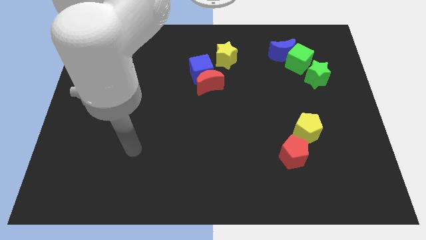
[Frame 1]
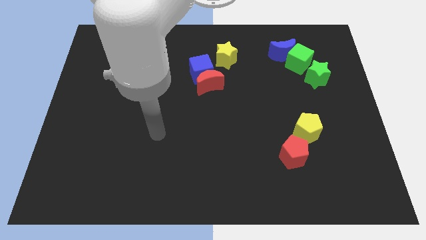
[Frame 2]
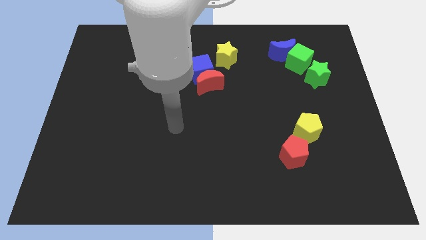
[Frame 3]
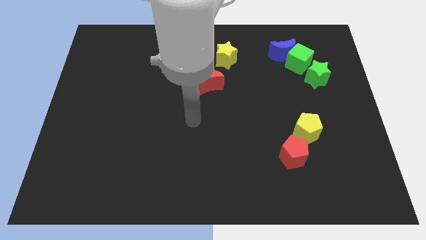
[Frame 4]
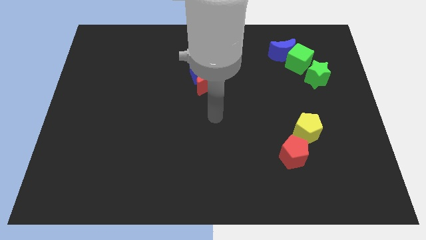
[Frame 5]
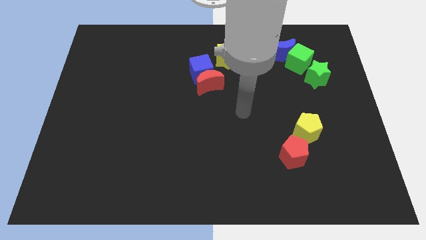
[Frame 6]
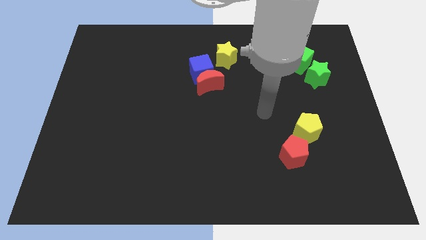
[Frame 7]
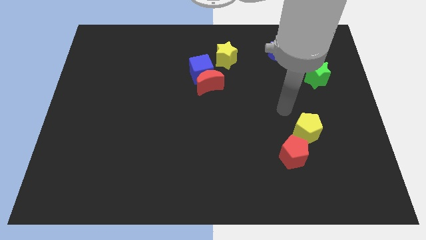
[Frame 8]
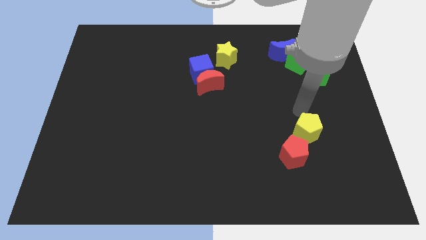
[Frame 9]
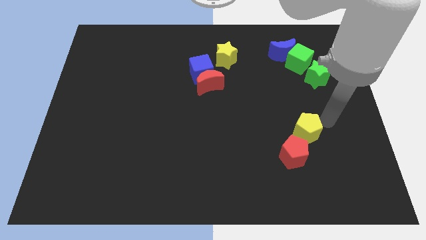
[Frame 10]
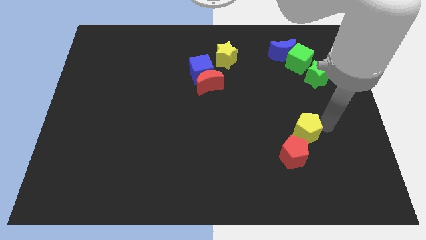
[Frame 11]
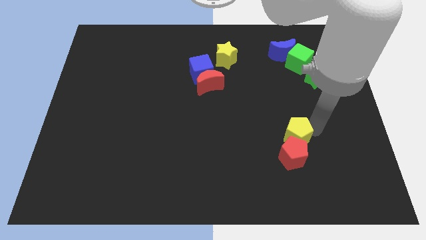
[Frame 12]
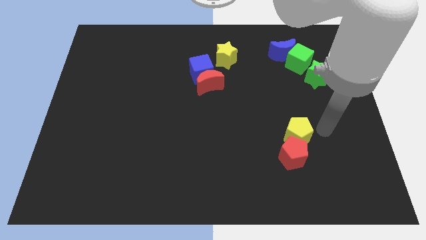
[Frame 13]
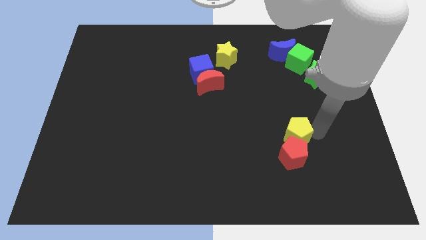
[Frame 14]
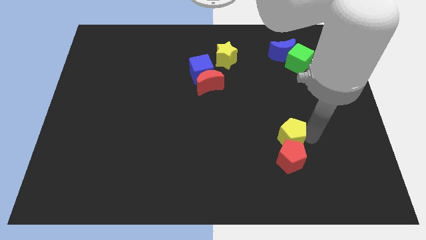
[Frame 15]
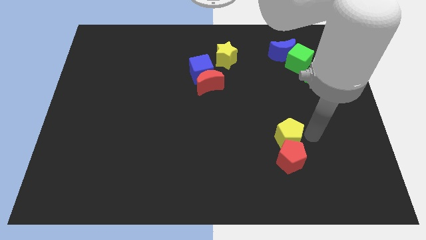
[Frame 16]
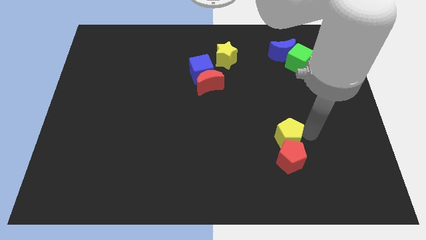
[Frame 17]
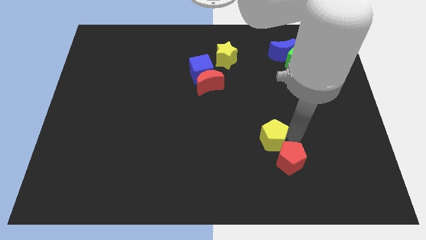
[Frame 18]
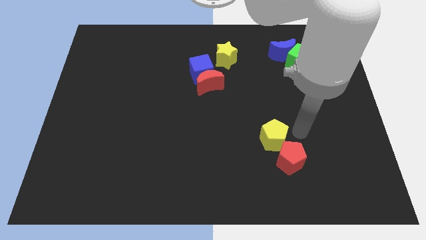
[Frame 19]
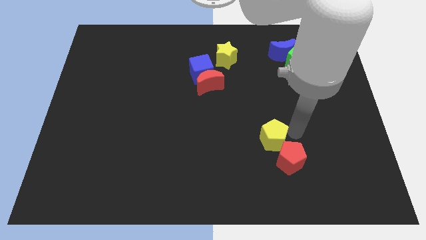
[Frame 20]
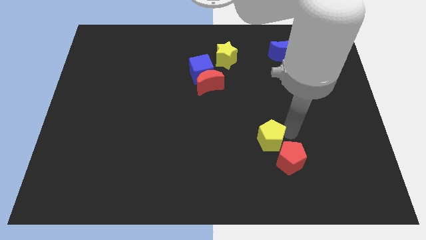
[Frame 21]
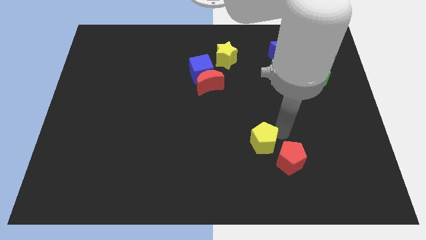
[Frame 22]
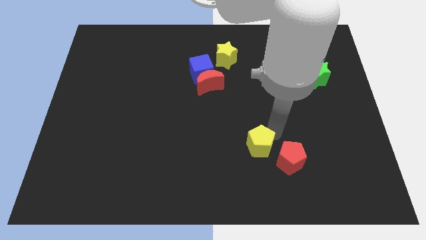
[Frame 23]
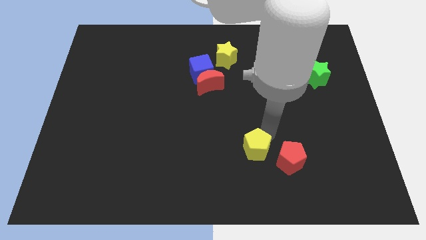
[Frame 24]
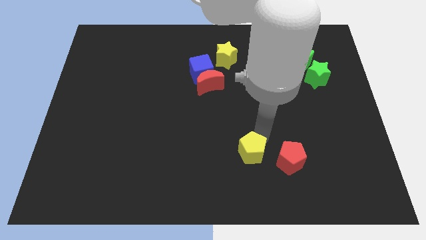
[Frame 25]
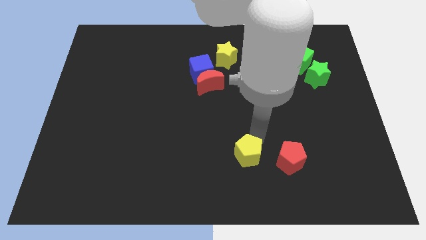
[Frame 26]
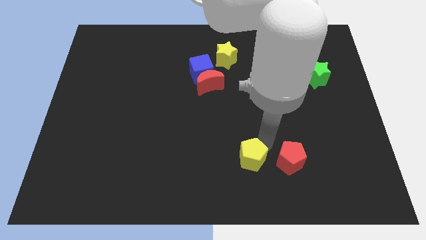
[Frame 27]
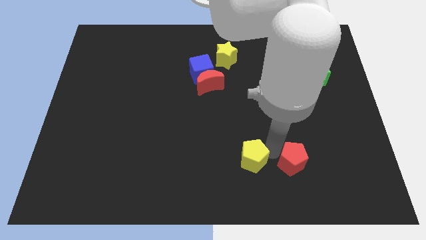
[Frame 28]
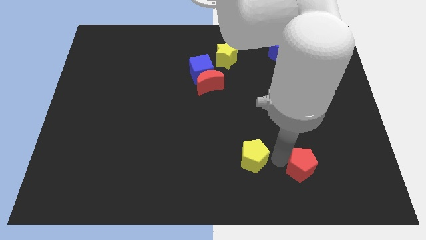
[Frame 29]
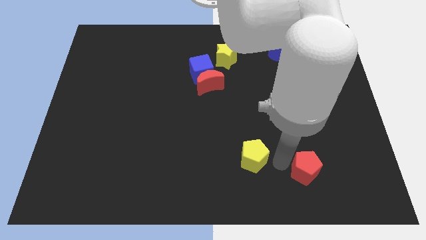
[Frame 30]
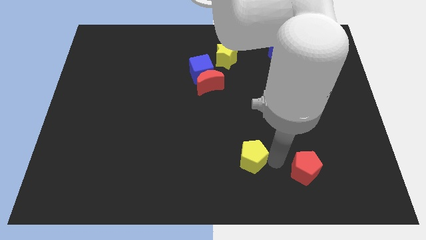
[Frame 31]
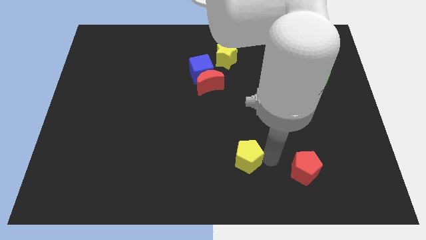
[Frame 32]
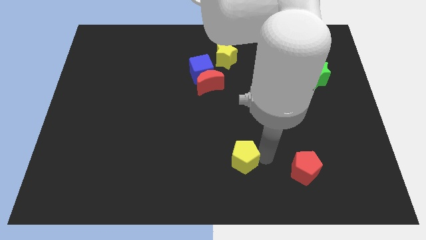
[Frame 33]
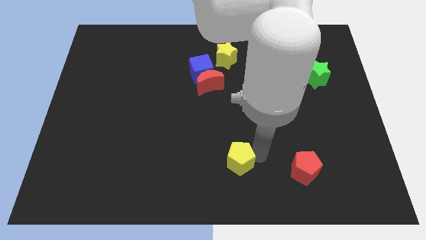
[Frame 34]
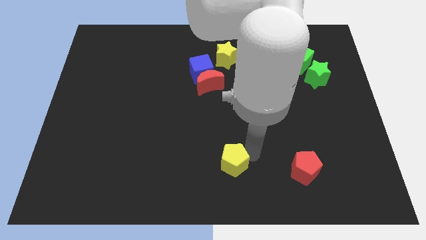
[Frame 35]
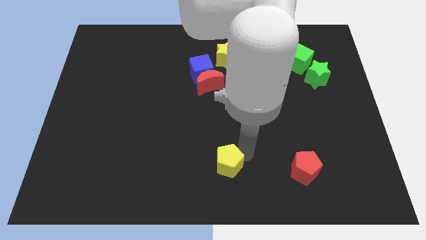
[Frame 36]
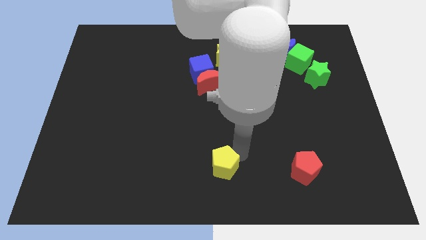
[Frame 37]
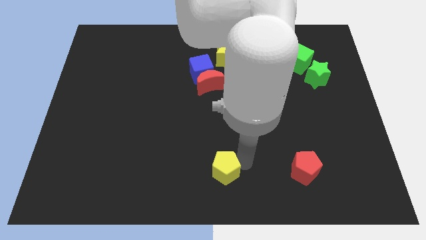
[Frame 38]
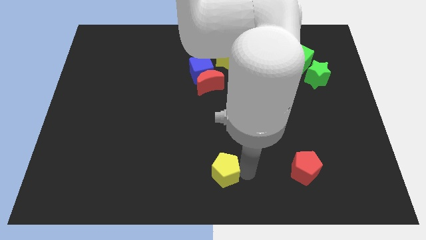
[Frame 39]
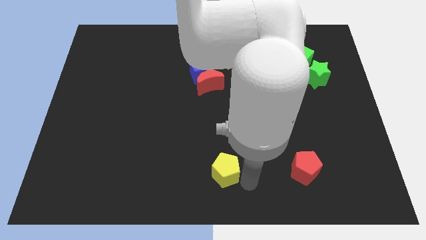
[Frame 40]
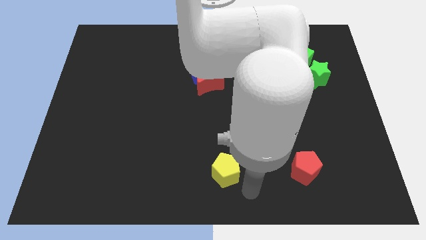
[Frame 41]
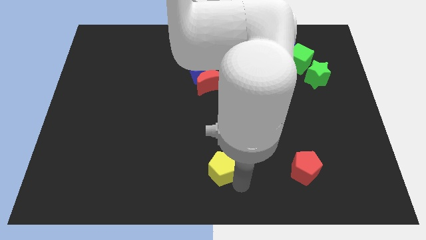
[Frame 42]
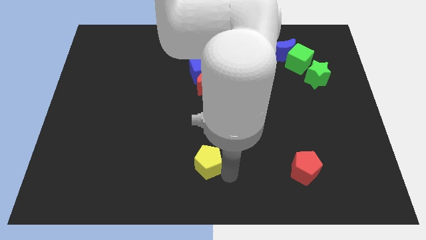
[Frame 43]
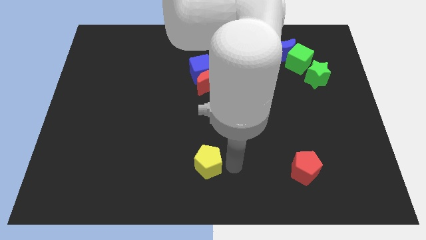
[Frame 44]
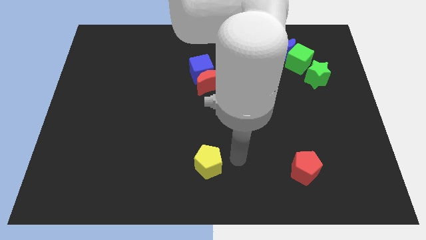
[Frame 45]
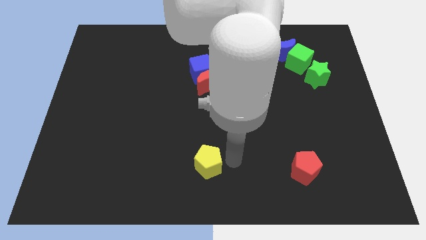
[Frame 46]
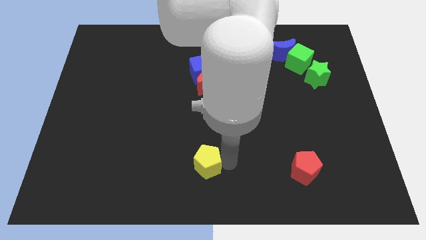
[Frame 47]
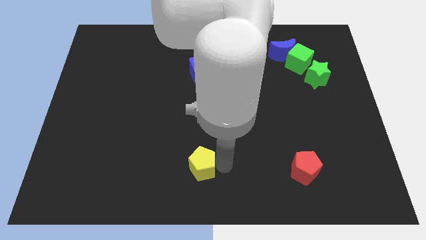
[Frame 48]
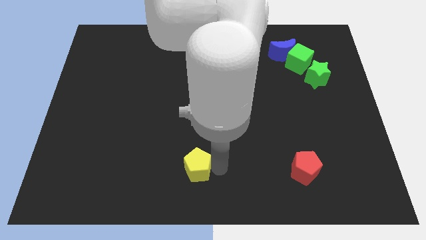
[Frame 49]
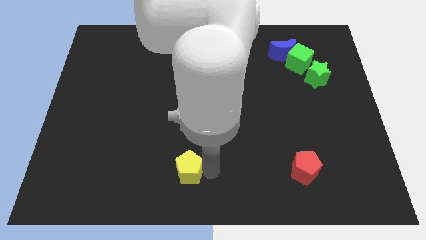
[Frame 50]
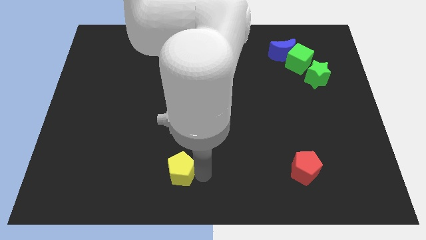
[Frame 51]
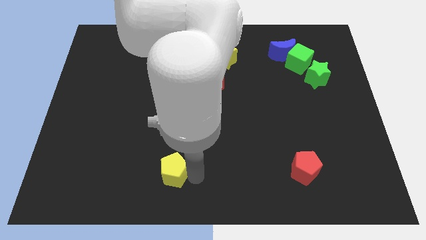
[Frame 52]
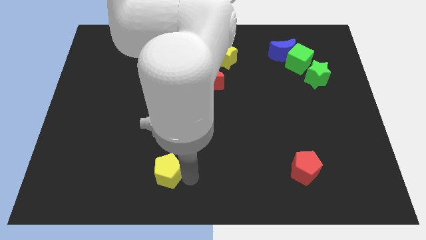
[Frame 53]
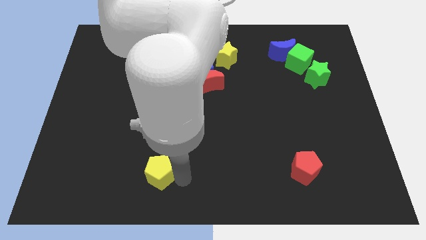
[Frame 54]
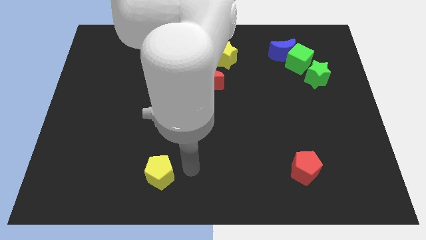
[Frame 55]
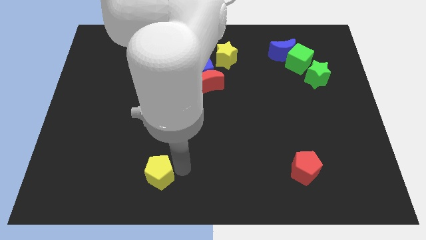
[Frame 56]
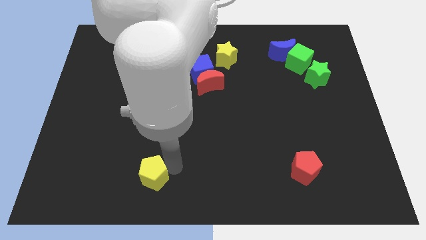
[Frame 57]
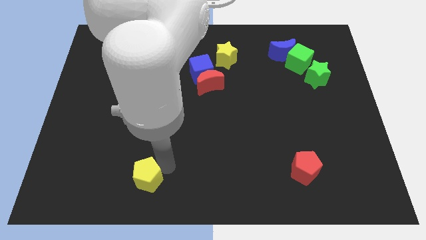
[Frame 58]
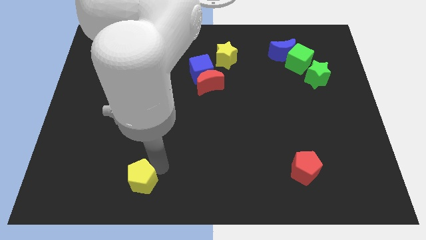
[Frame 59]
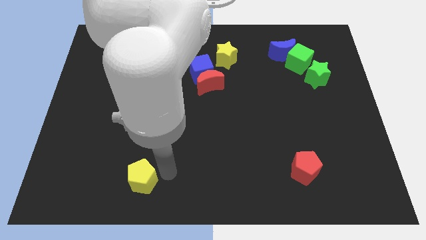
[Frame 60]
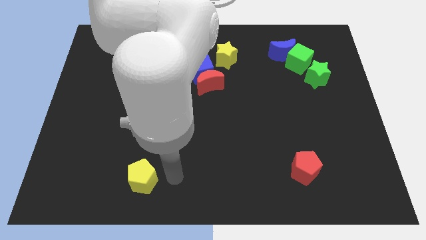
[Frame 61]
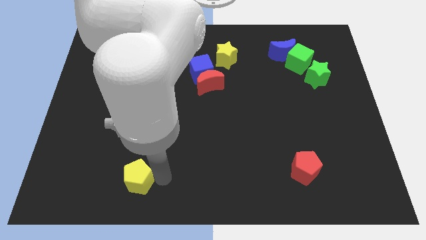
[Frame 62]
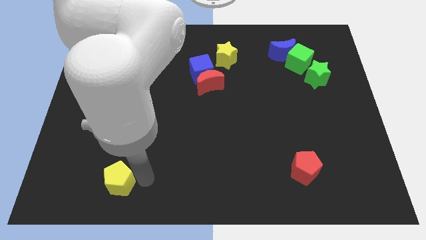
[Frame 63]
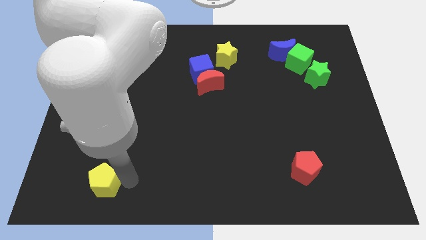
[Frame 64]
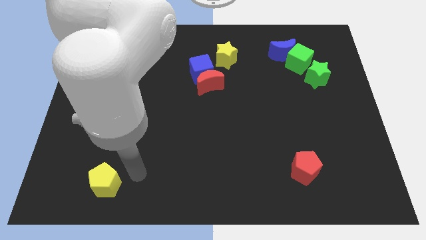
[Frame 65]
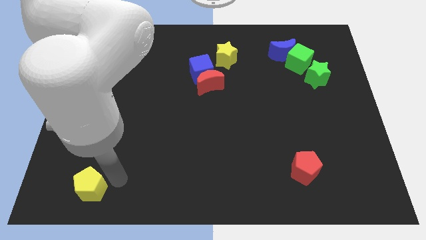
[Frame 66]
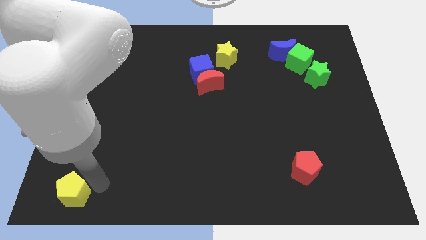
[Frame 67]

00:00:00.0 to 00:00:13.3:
put the yellow pentagon to the bottom left of the board
